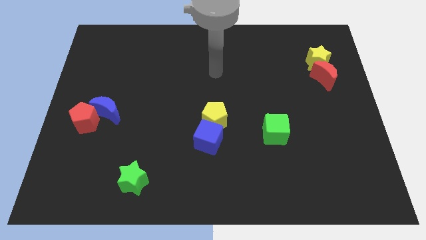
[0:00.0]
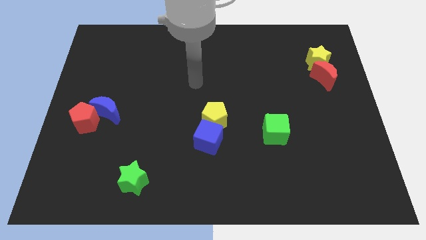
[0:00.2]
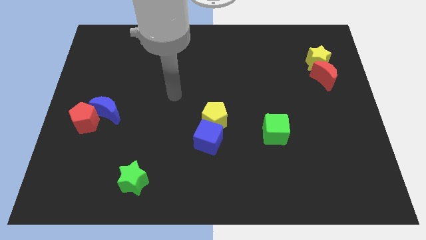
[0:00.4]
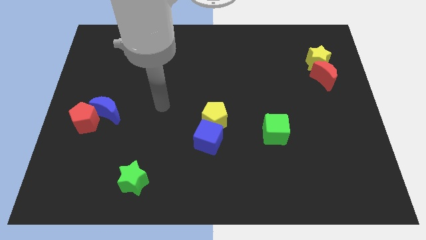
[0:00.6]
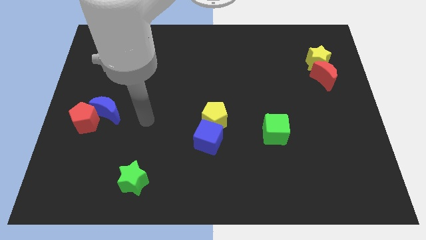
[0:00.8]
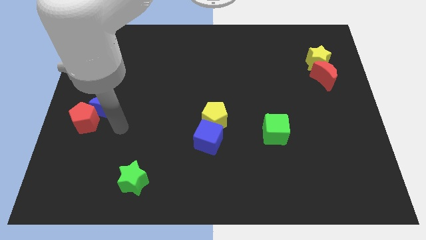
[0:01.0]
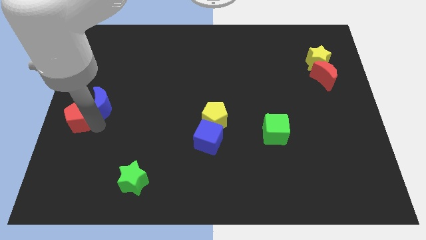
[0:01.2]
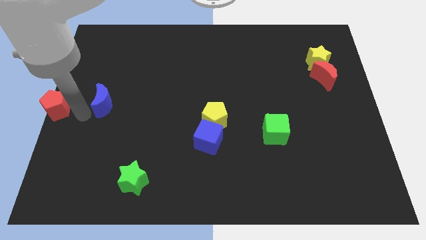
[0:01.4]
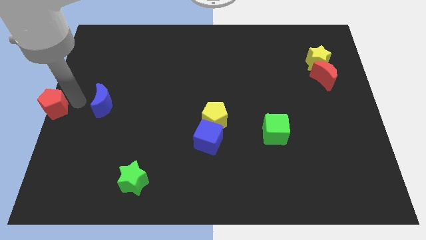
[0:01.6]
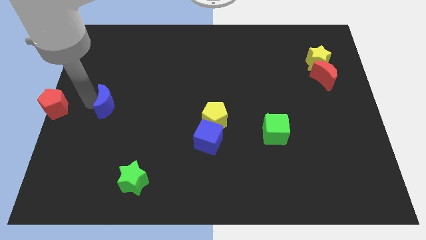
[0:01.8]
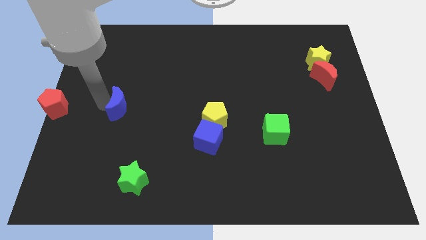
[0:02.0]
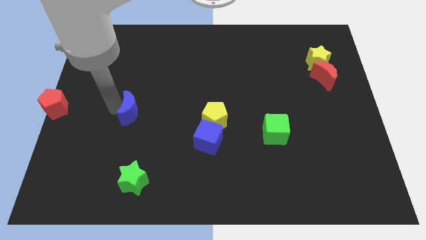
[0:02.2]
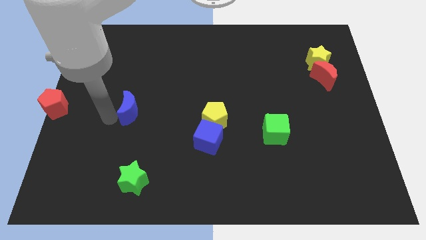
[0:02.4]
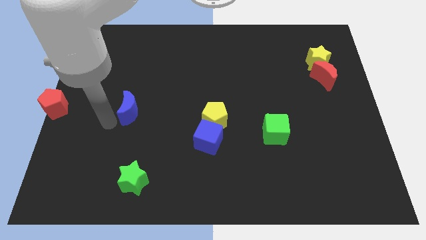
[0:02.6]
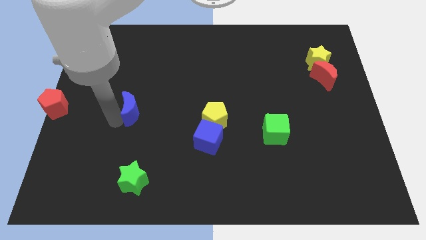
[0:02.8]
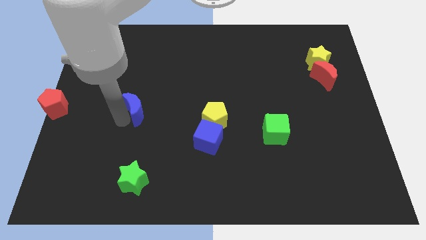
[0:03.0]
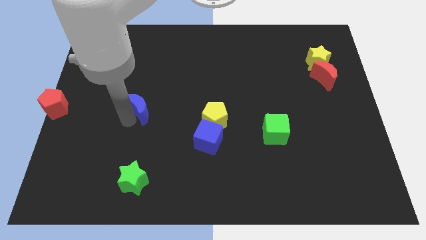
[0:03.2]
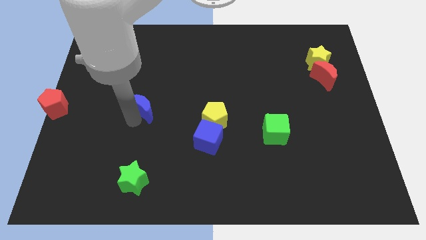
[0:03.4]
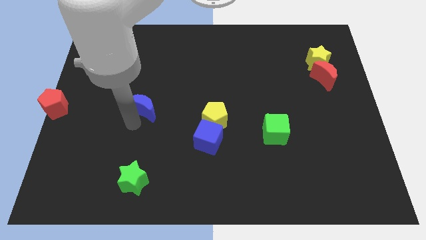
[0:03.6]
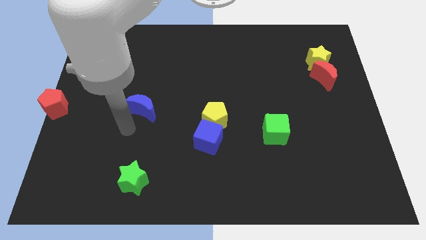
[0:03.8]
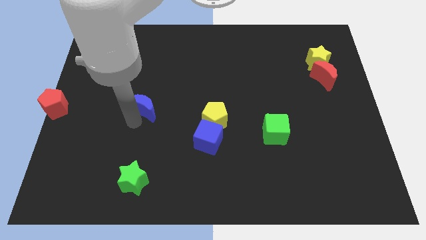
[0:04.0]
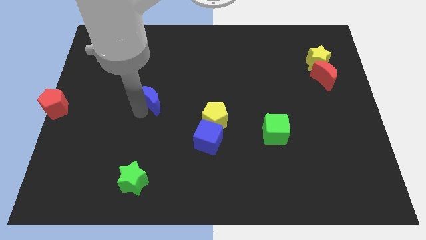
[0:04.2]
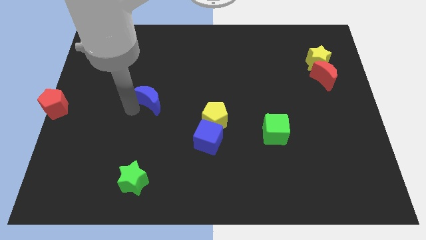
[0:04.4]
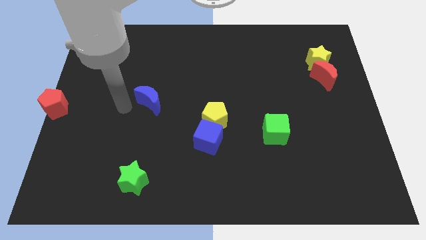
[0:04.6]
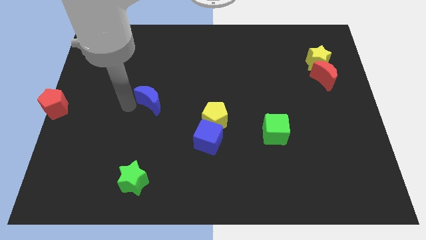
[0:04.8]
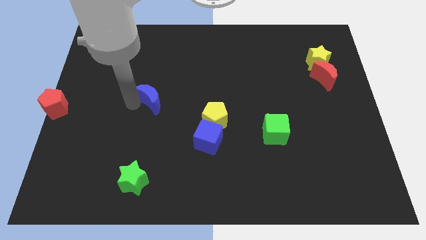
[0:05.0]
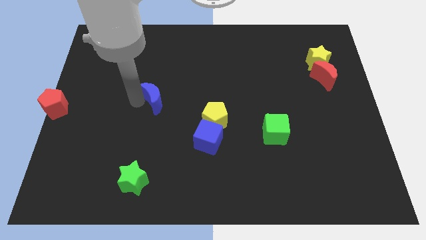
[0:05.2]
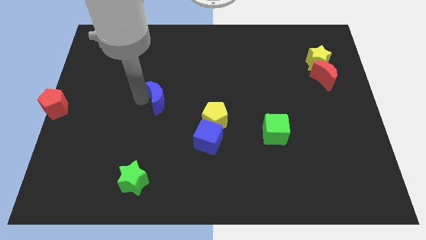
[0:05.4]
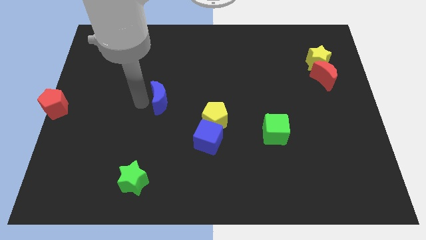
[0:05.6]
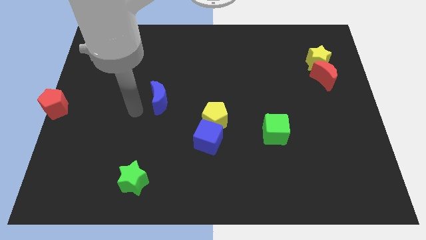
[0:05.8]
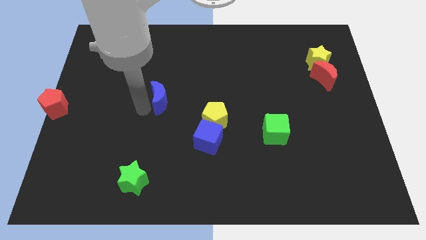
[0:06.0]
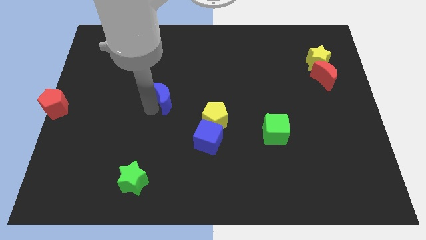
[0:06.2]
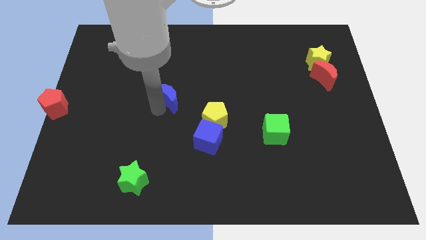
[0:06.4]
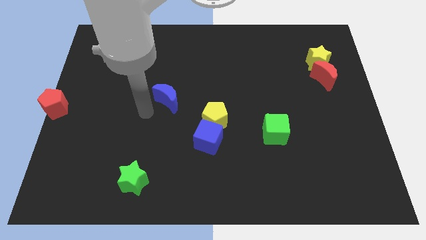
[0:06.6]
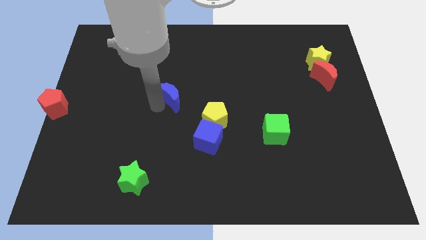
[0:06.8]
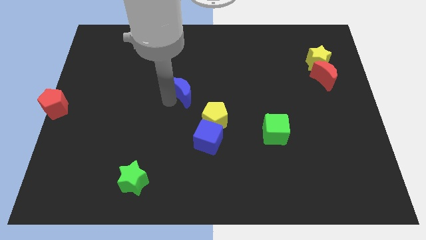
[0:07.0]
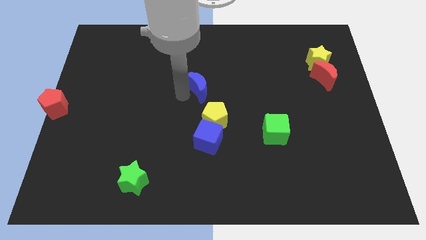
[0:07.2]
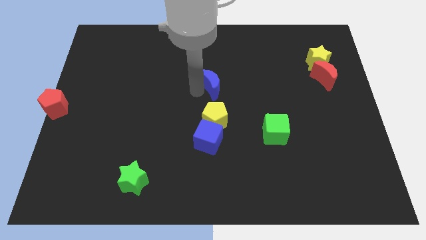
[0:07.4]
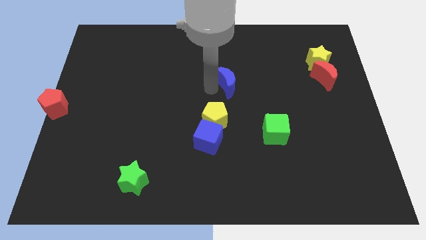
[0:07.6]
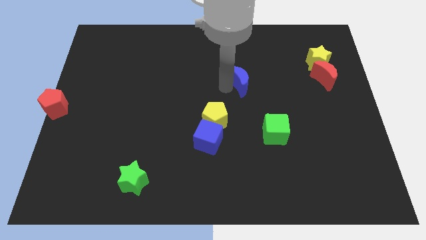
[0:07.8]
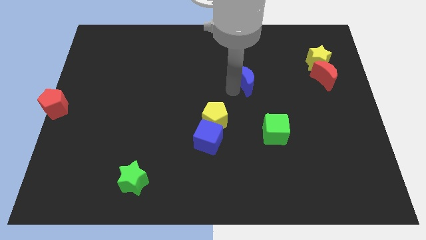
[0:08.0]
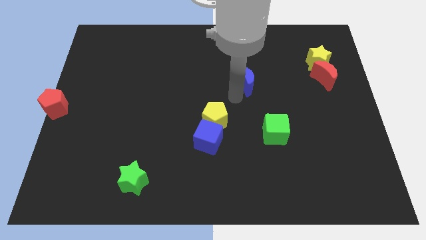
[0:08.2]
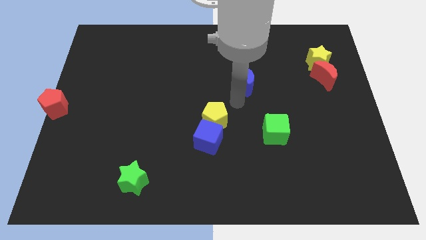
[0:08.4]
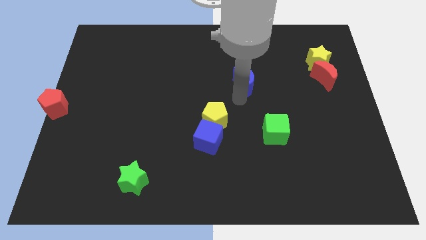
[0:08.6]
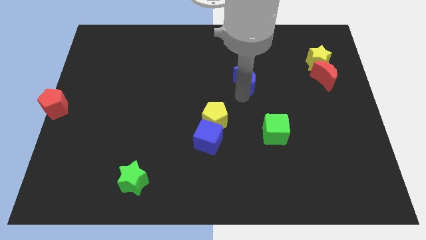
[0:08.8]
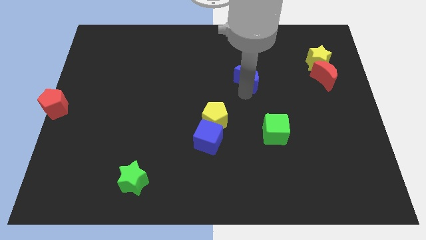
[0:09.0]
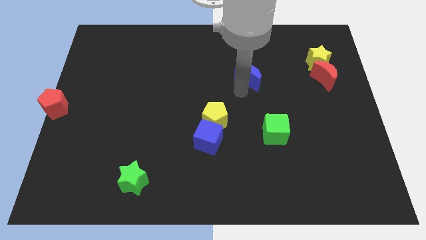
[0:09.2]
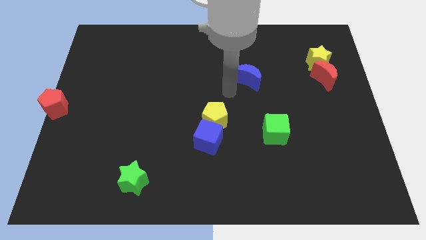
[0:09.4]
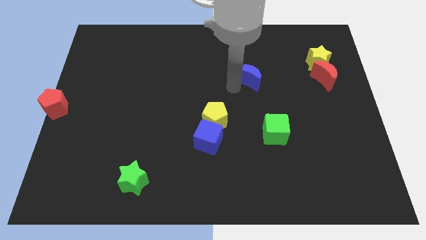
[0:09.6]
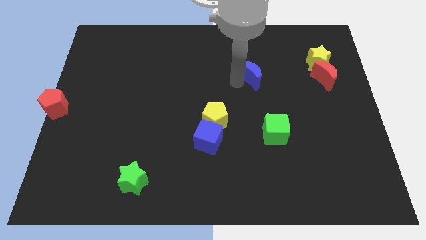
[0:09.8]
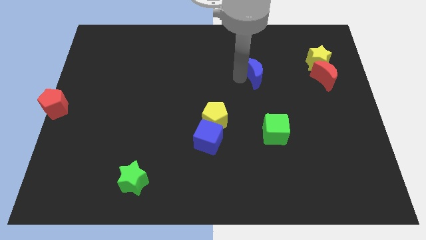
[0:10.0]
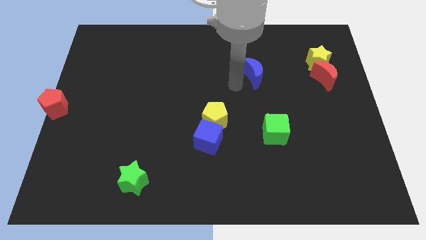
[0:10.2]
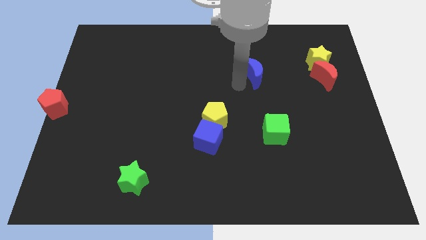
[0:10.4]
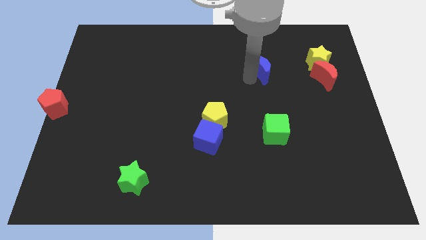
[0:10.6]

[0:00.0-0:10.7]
move the blue moon to the left side of the yellow star

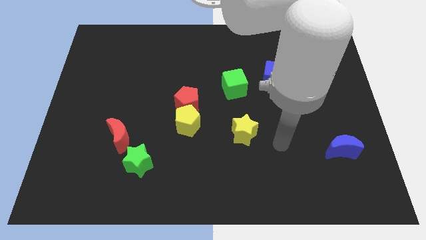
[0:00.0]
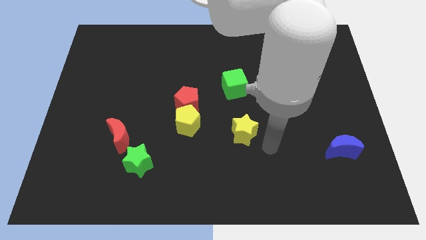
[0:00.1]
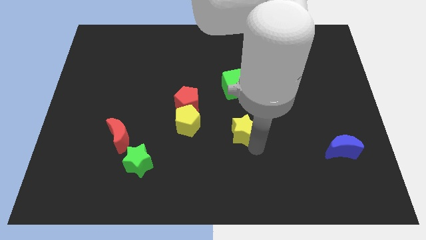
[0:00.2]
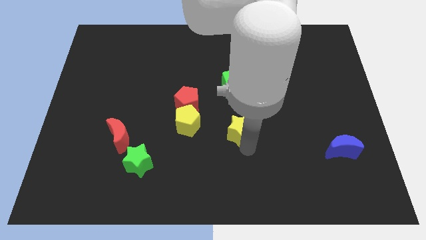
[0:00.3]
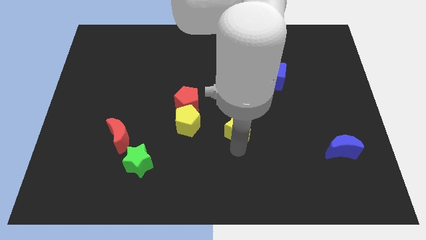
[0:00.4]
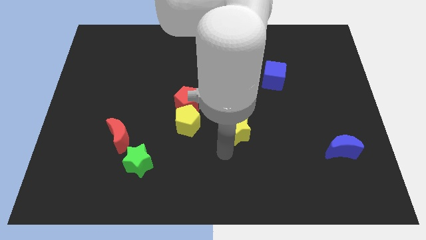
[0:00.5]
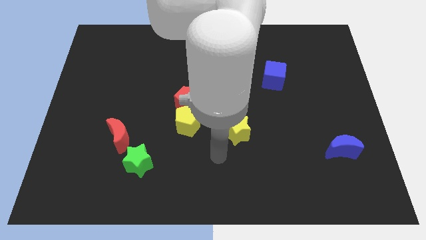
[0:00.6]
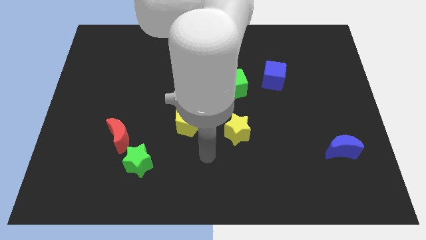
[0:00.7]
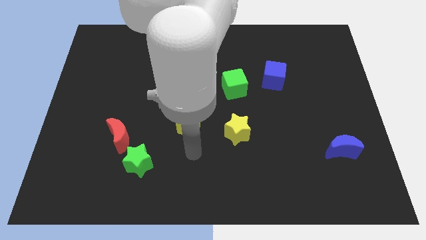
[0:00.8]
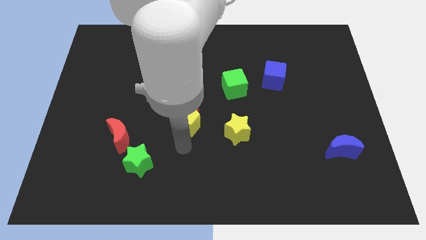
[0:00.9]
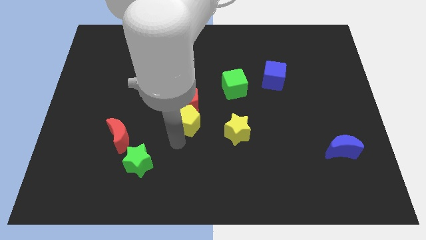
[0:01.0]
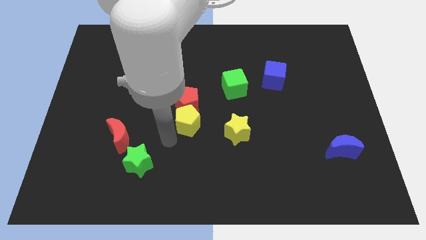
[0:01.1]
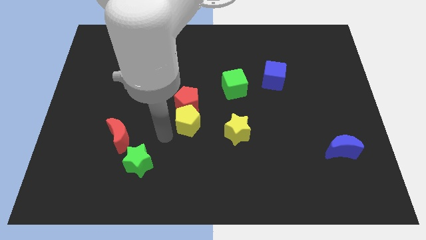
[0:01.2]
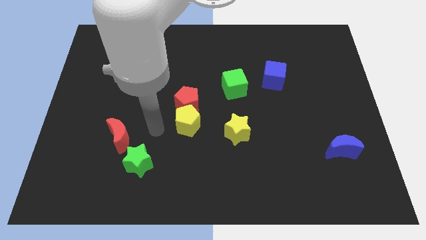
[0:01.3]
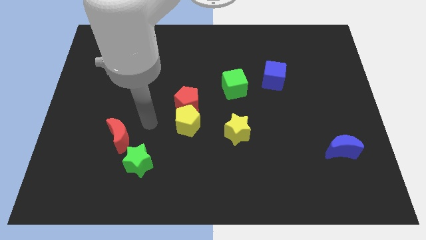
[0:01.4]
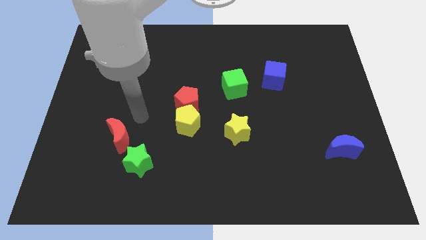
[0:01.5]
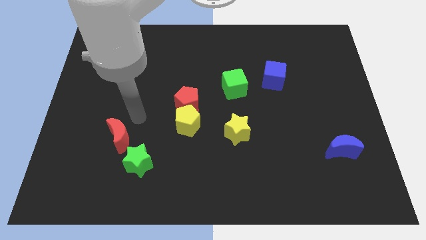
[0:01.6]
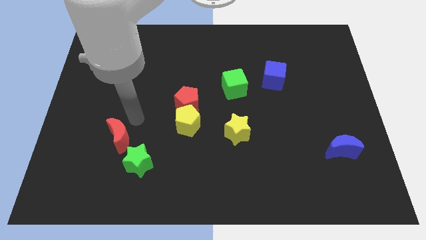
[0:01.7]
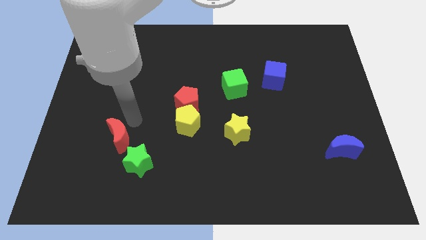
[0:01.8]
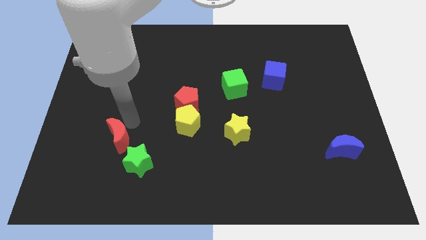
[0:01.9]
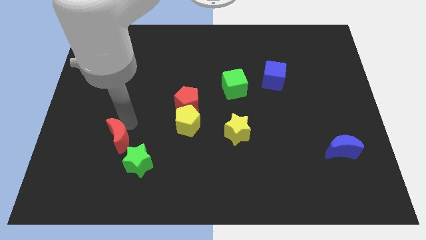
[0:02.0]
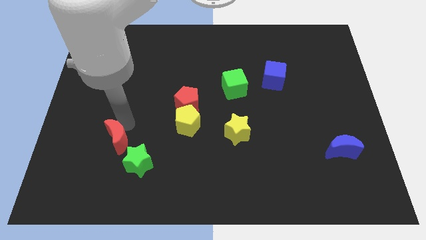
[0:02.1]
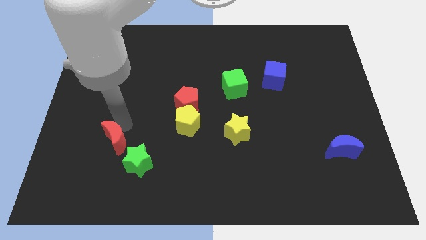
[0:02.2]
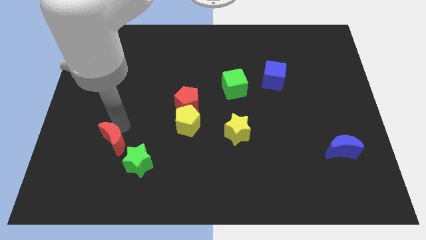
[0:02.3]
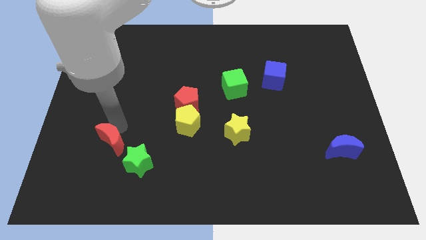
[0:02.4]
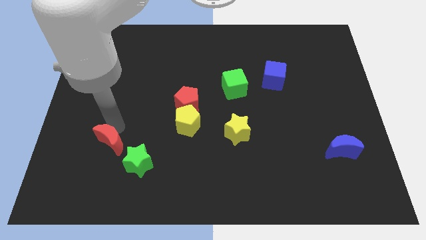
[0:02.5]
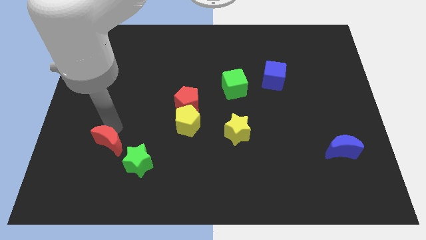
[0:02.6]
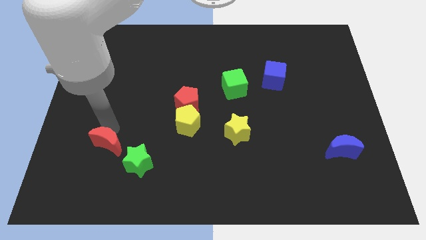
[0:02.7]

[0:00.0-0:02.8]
push the red moon left of the green star

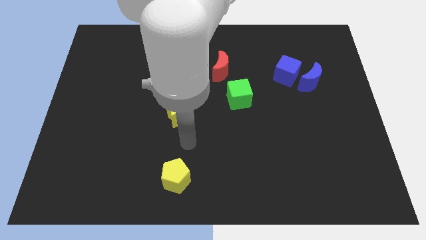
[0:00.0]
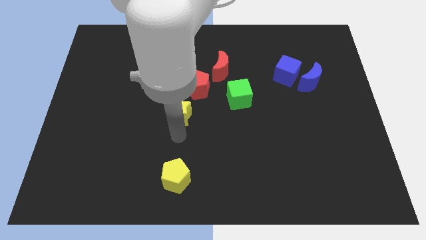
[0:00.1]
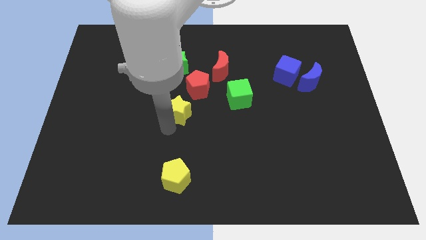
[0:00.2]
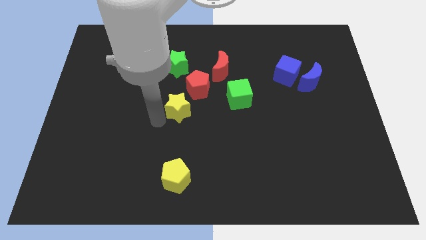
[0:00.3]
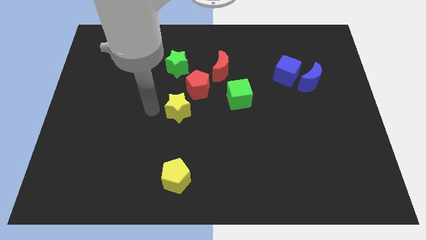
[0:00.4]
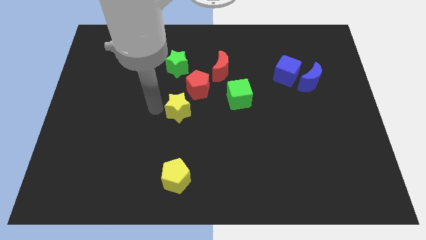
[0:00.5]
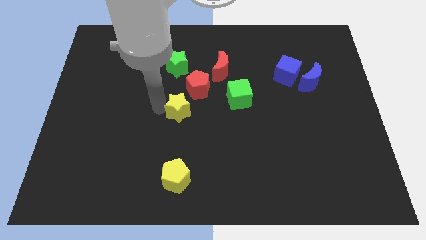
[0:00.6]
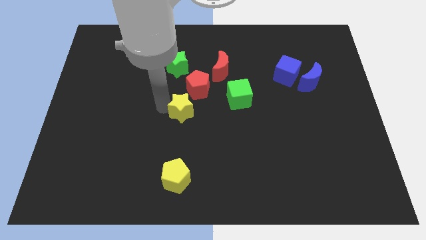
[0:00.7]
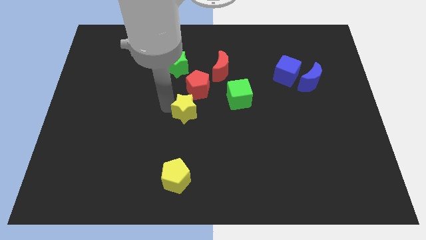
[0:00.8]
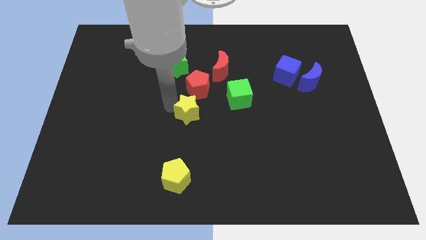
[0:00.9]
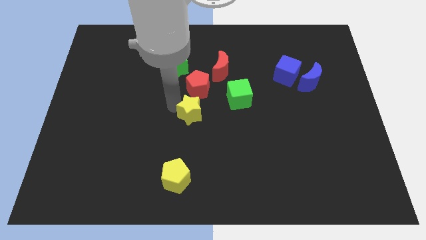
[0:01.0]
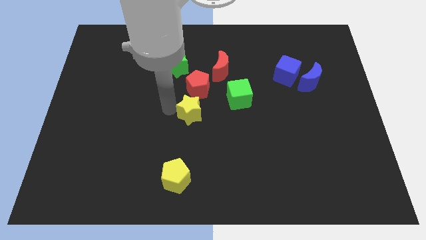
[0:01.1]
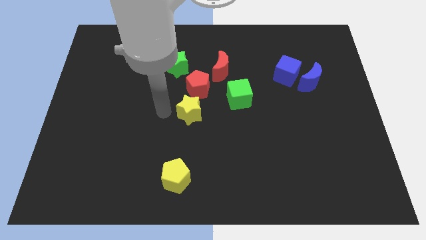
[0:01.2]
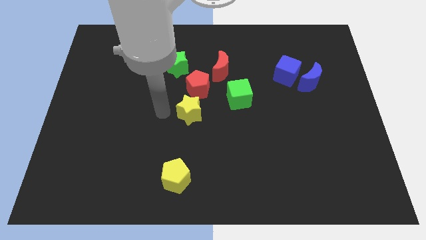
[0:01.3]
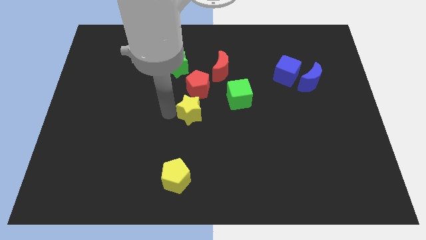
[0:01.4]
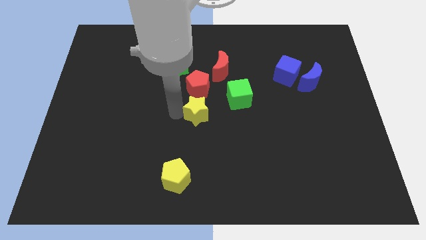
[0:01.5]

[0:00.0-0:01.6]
push the yellow star diagonally down and to the left of the green cube
